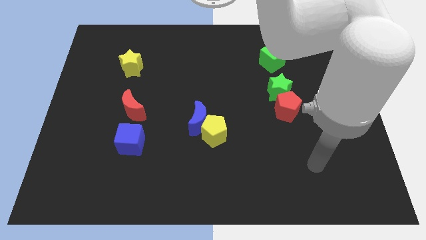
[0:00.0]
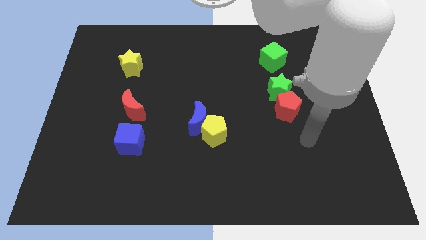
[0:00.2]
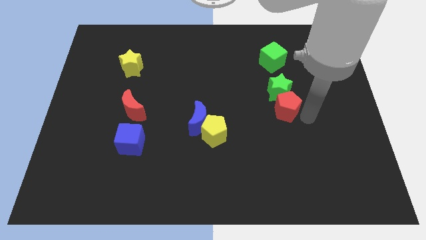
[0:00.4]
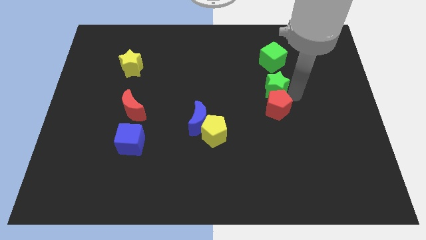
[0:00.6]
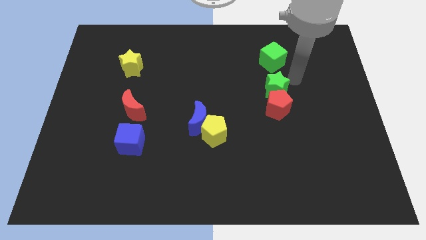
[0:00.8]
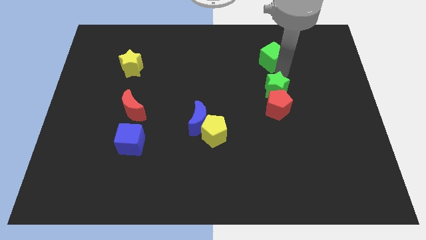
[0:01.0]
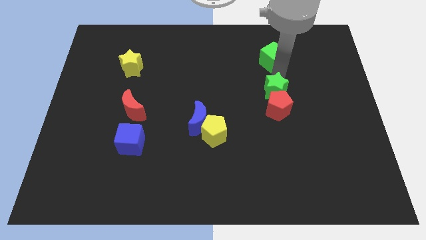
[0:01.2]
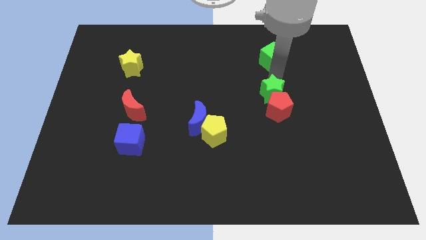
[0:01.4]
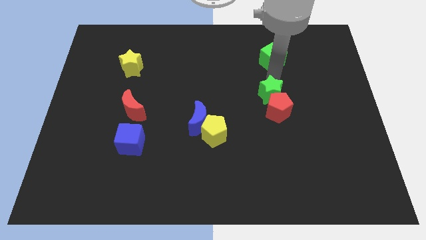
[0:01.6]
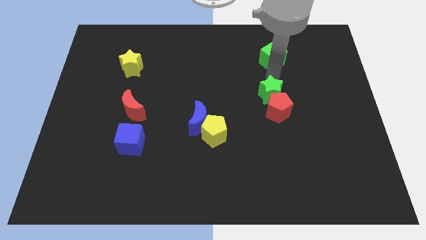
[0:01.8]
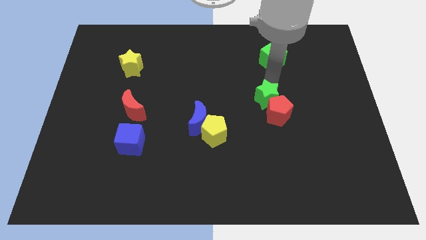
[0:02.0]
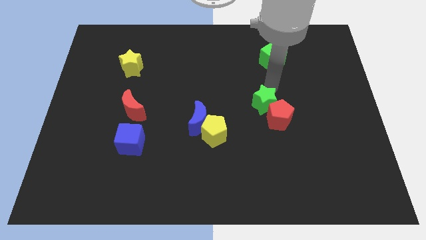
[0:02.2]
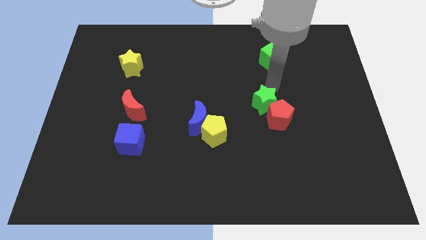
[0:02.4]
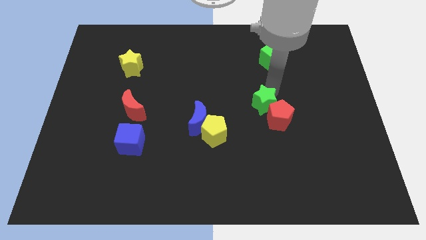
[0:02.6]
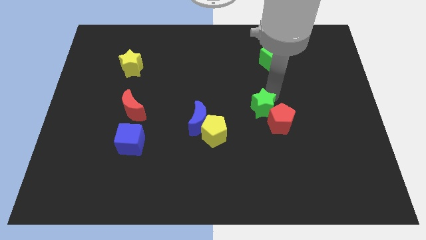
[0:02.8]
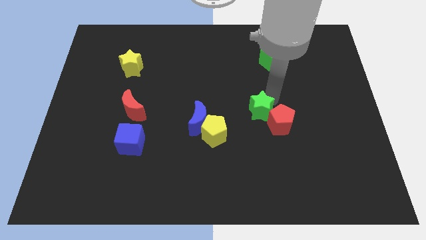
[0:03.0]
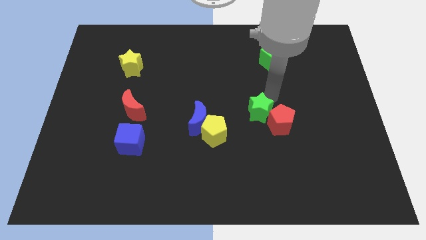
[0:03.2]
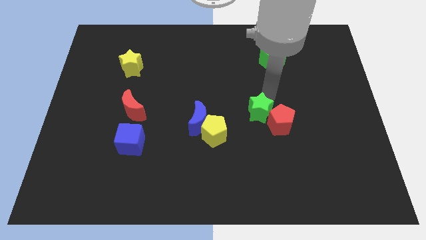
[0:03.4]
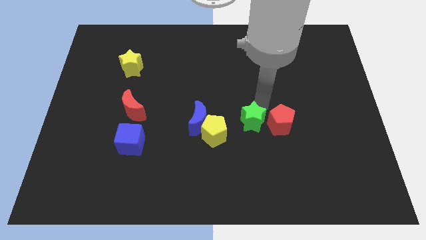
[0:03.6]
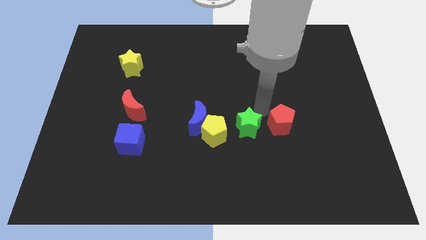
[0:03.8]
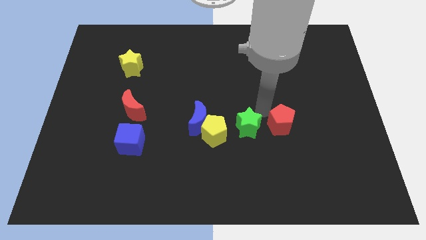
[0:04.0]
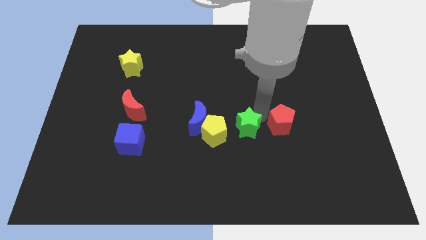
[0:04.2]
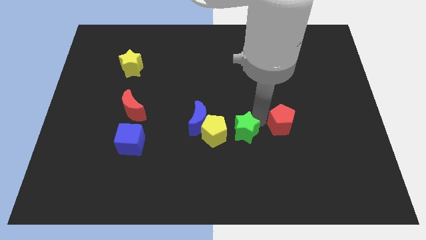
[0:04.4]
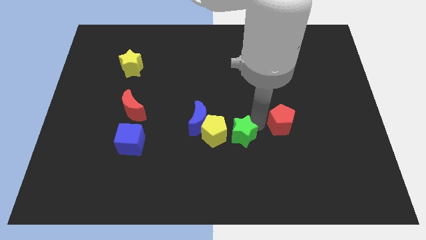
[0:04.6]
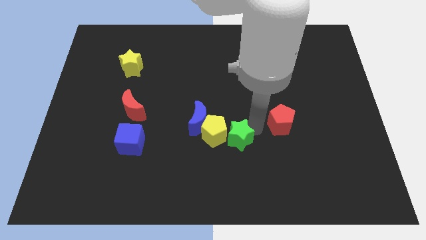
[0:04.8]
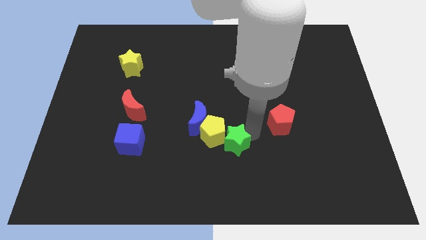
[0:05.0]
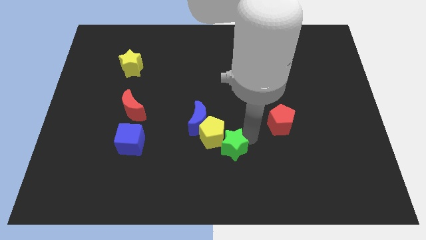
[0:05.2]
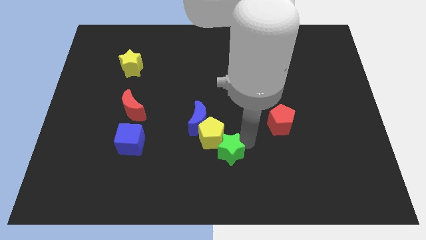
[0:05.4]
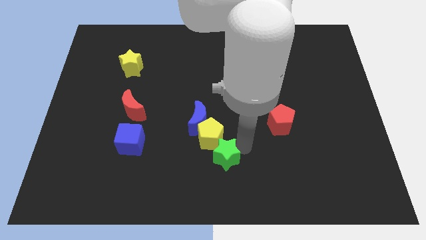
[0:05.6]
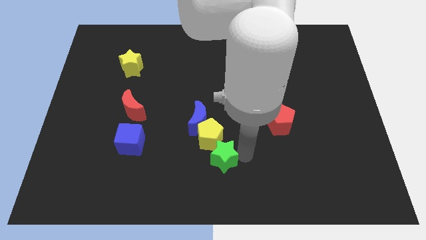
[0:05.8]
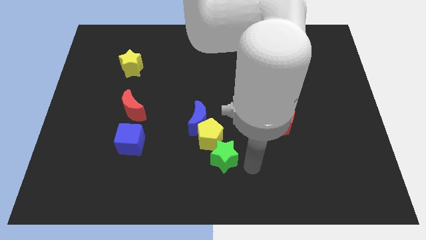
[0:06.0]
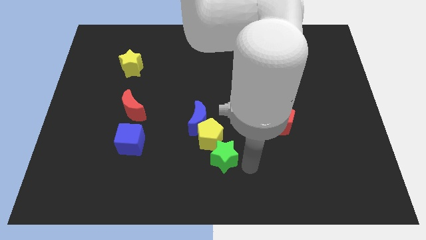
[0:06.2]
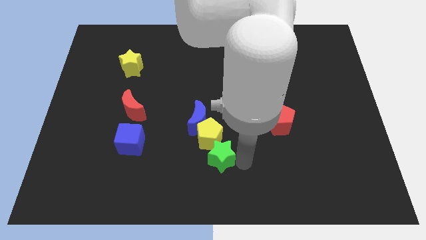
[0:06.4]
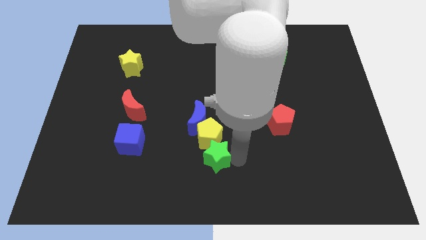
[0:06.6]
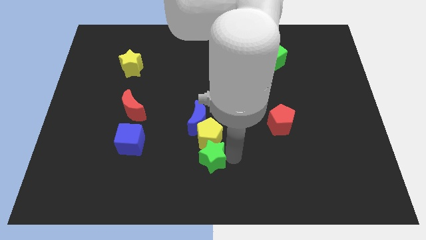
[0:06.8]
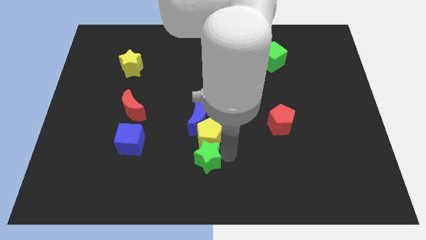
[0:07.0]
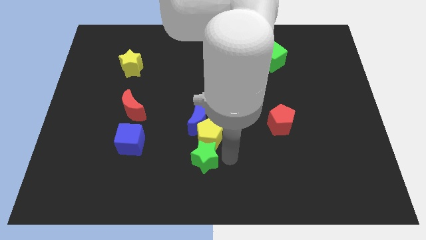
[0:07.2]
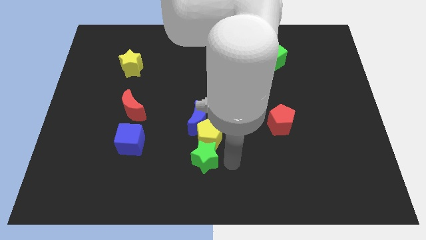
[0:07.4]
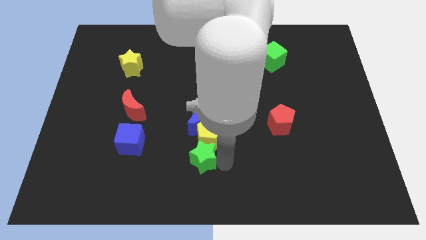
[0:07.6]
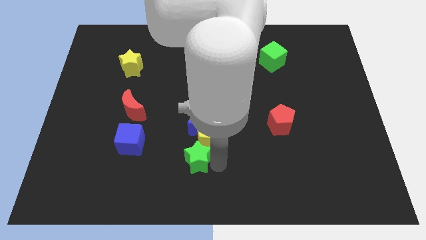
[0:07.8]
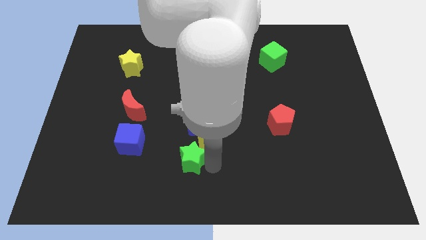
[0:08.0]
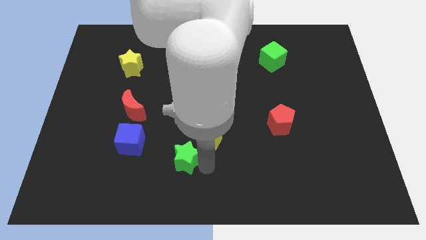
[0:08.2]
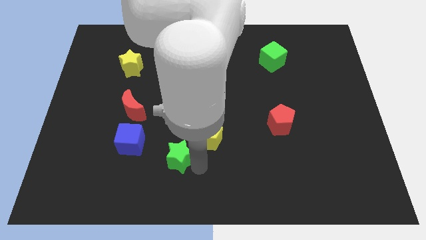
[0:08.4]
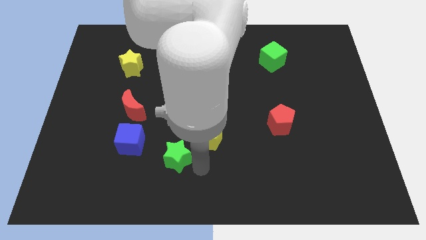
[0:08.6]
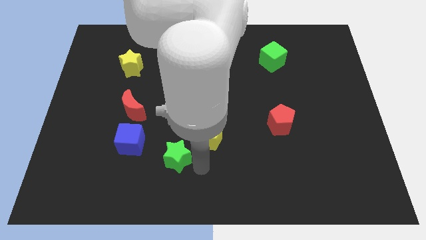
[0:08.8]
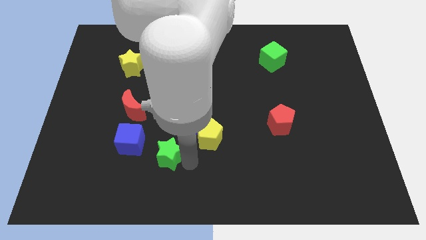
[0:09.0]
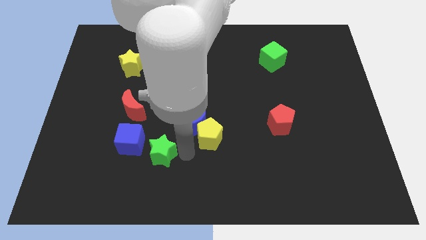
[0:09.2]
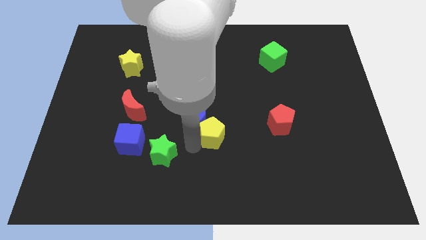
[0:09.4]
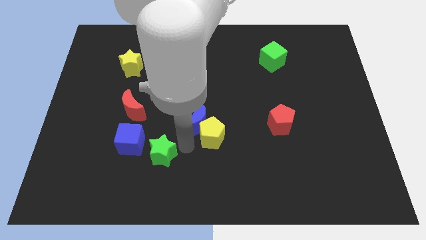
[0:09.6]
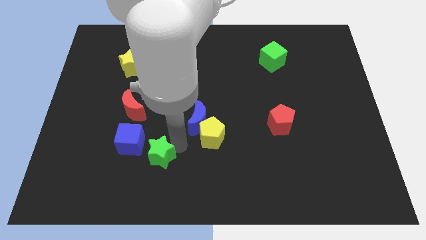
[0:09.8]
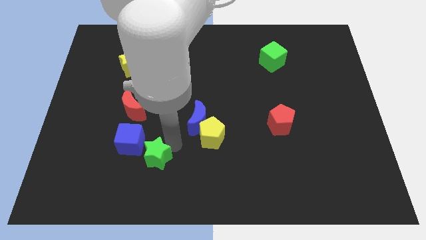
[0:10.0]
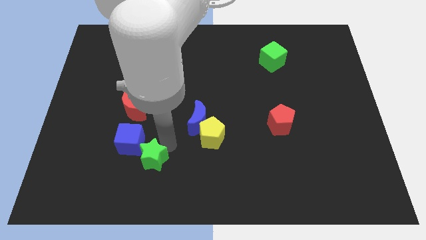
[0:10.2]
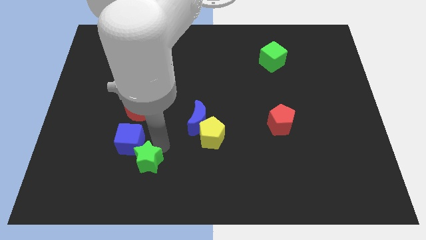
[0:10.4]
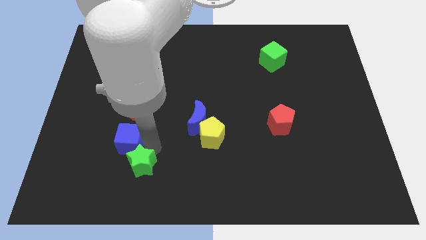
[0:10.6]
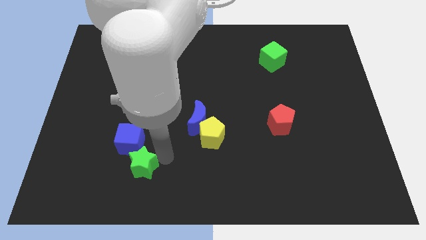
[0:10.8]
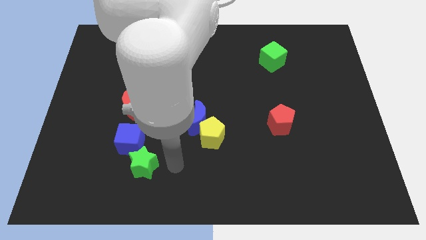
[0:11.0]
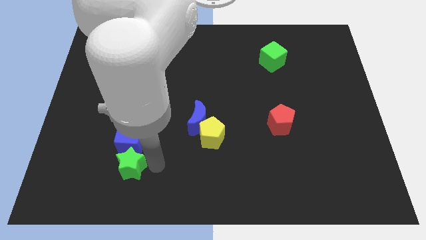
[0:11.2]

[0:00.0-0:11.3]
slide the green star to the bottom left of the blue cube
